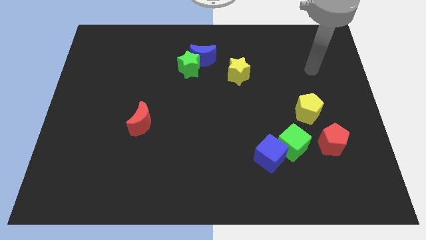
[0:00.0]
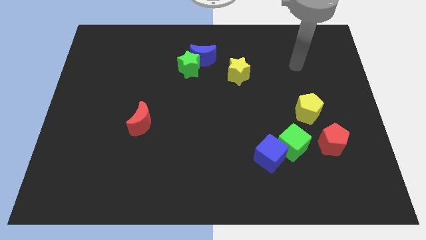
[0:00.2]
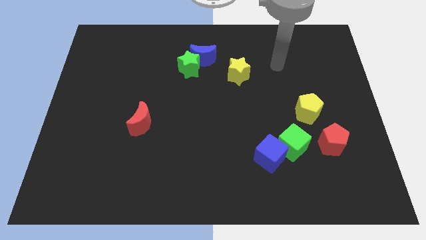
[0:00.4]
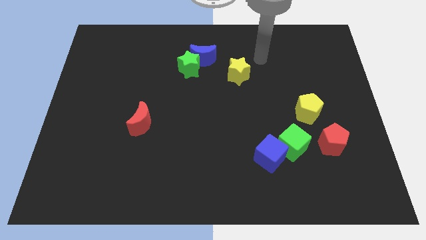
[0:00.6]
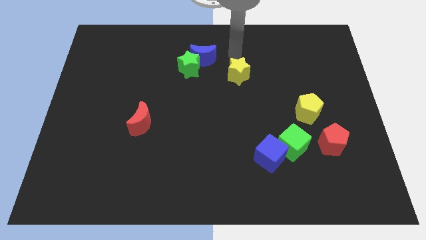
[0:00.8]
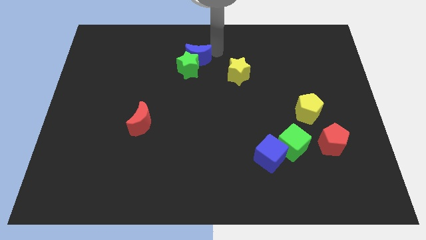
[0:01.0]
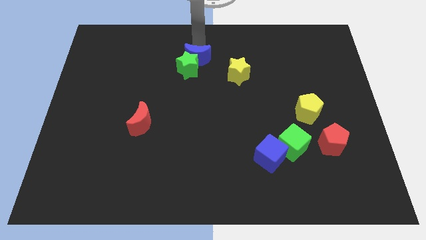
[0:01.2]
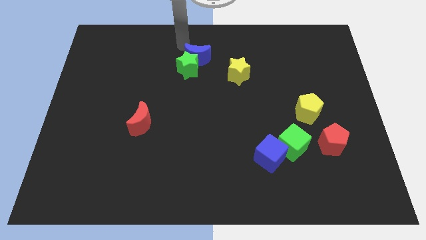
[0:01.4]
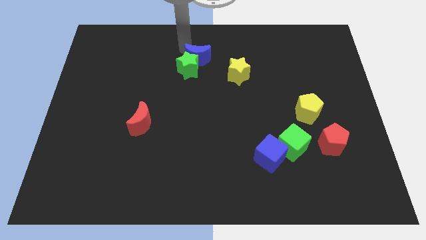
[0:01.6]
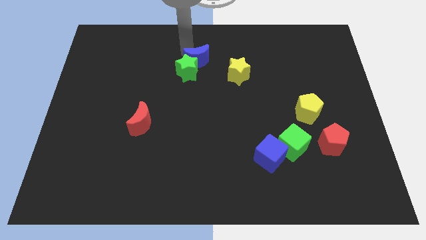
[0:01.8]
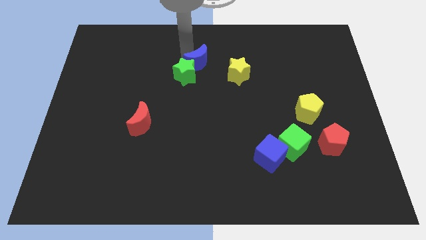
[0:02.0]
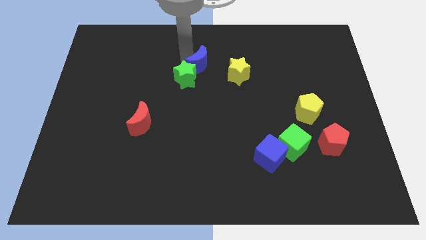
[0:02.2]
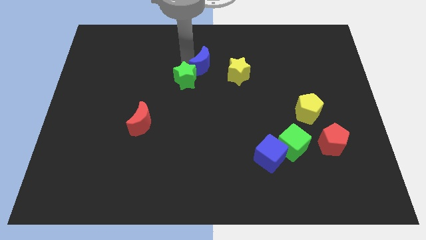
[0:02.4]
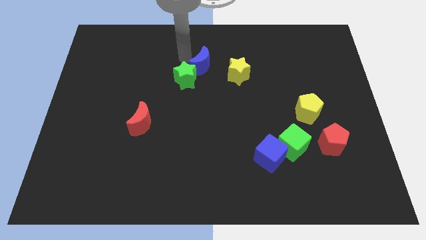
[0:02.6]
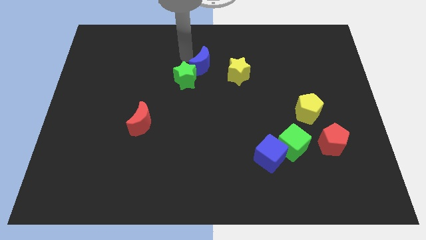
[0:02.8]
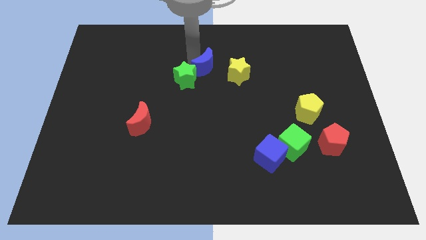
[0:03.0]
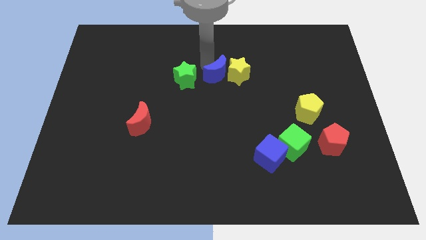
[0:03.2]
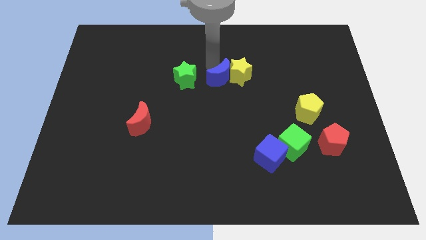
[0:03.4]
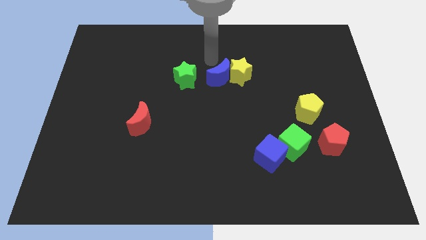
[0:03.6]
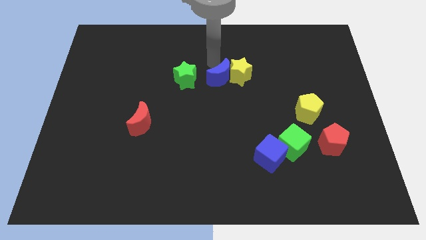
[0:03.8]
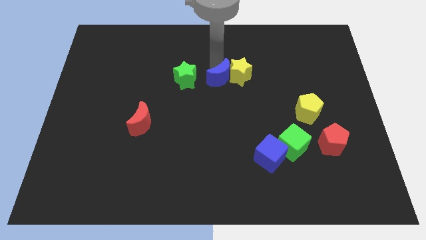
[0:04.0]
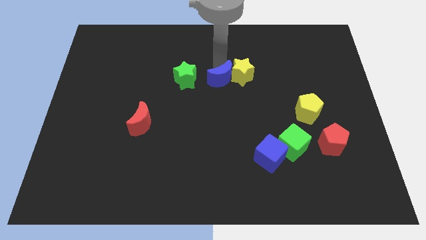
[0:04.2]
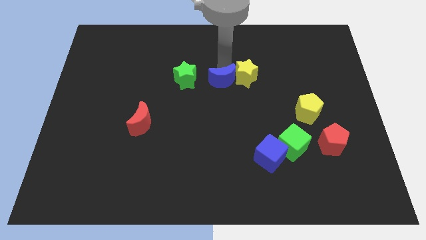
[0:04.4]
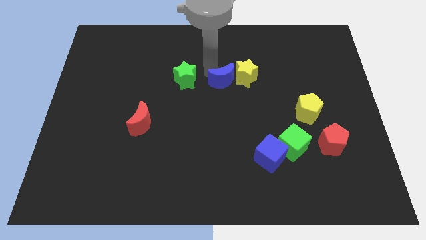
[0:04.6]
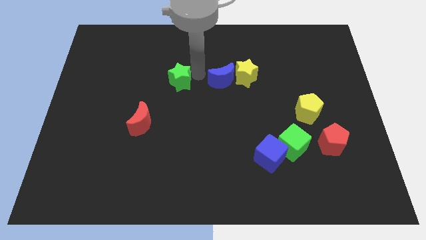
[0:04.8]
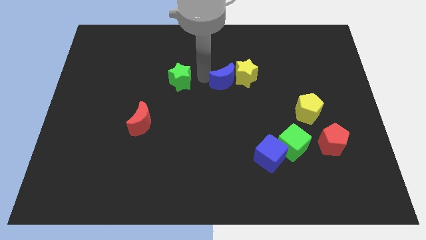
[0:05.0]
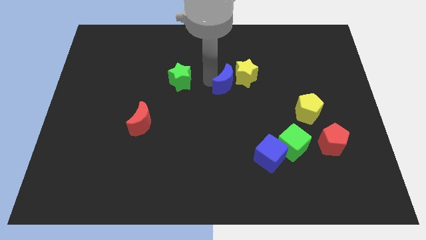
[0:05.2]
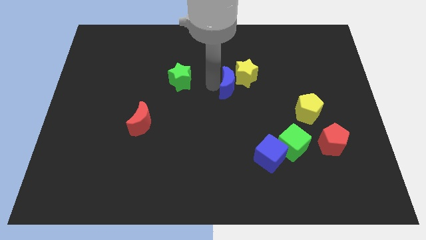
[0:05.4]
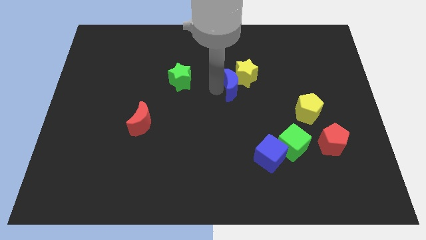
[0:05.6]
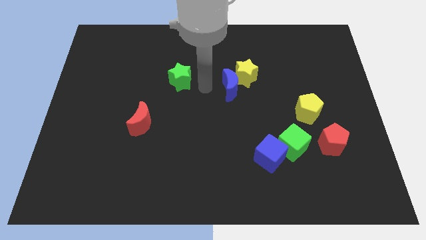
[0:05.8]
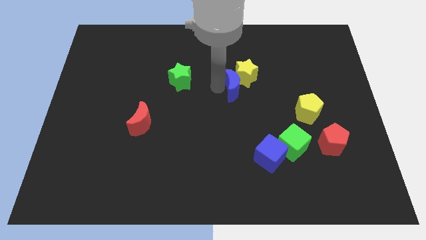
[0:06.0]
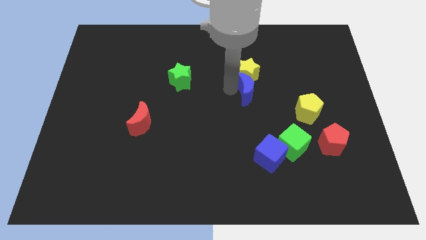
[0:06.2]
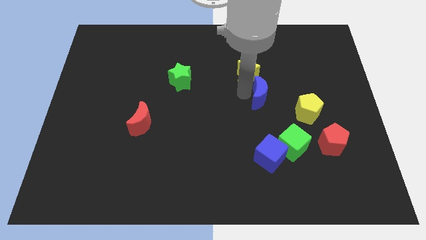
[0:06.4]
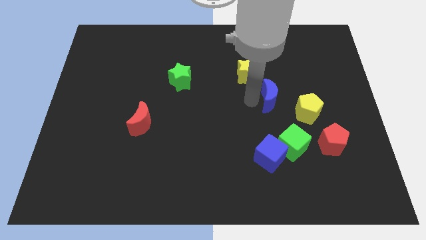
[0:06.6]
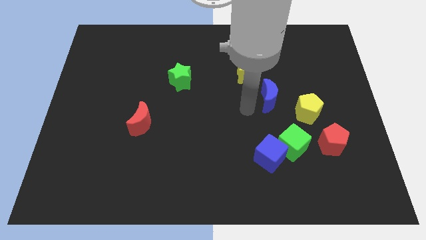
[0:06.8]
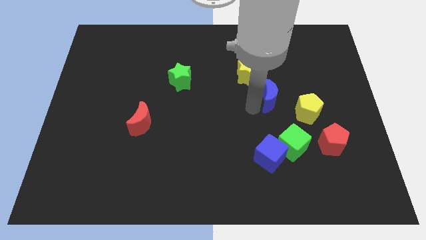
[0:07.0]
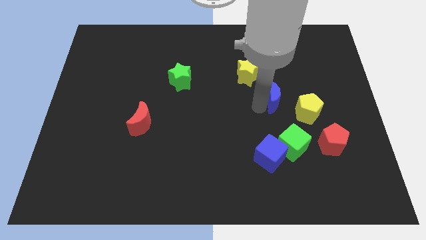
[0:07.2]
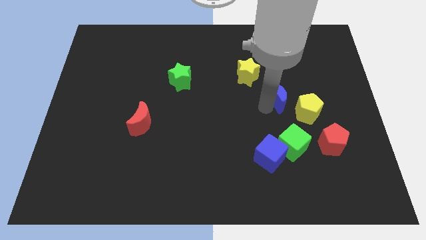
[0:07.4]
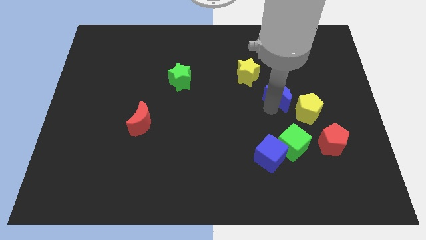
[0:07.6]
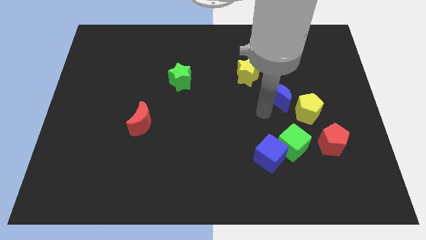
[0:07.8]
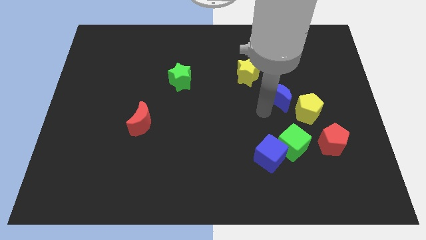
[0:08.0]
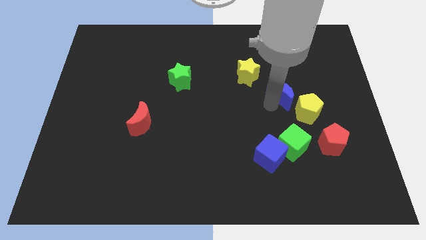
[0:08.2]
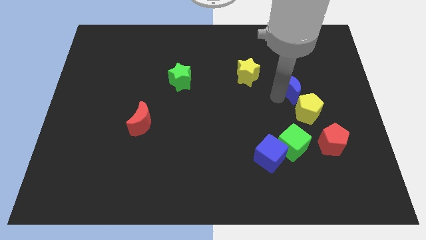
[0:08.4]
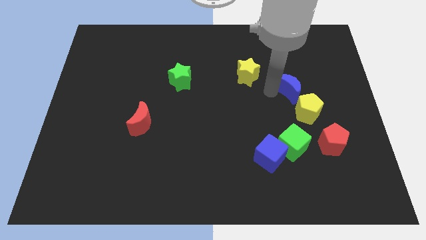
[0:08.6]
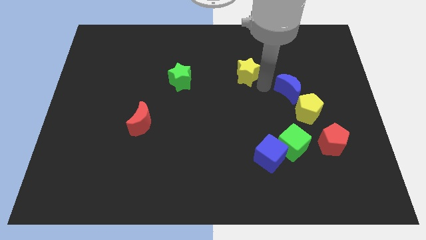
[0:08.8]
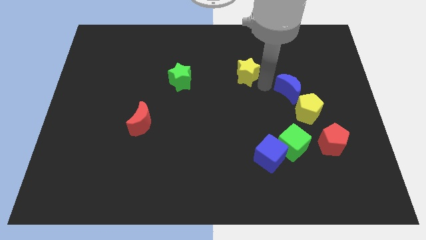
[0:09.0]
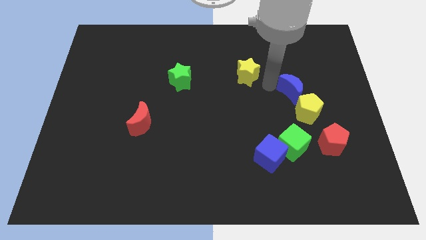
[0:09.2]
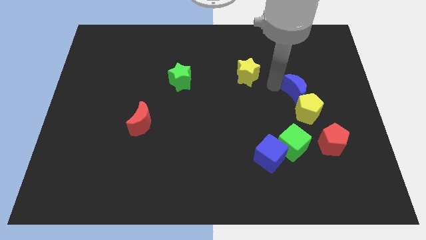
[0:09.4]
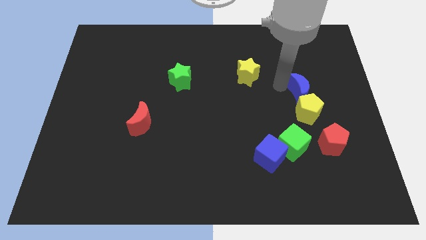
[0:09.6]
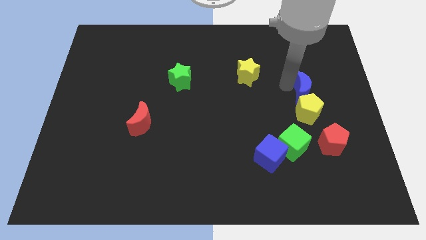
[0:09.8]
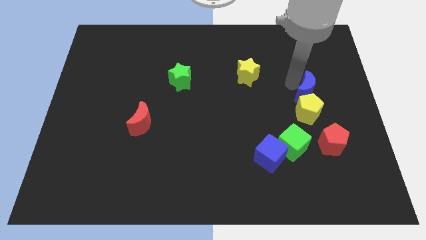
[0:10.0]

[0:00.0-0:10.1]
move the blue moon to the top side of the red pentagon

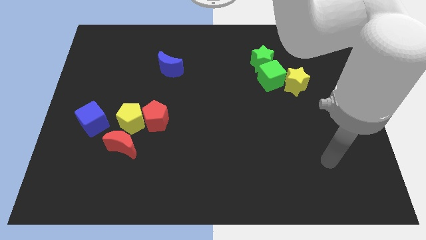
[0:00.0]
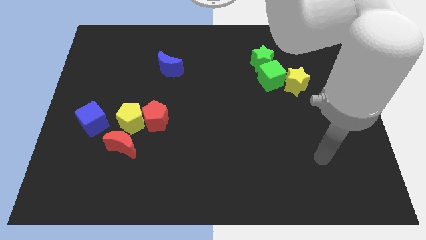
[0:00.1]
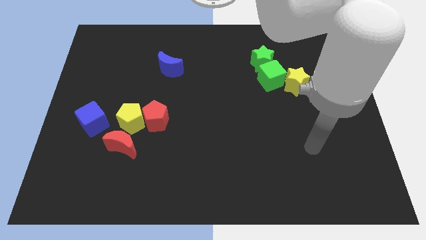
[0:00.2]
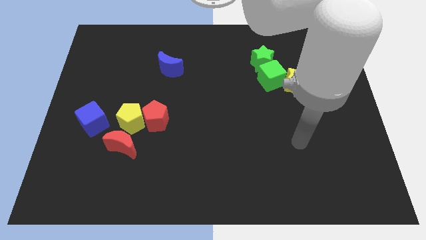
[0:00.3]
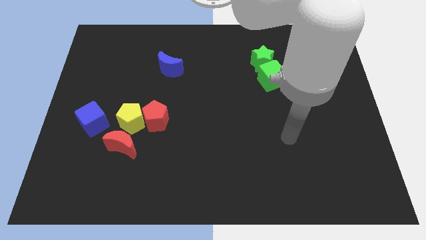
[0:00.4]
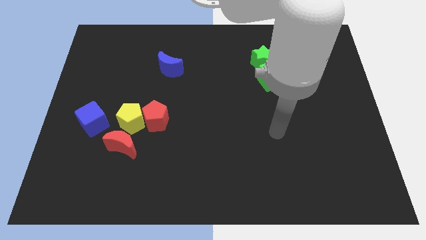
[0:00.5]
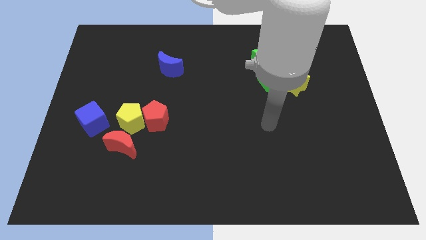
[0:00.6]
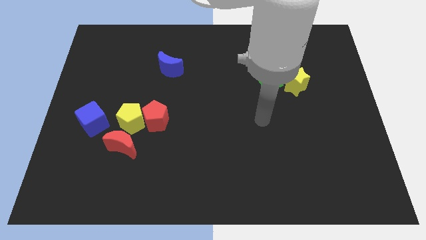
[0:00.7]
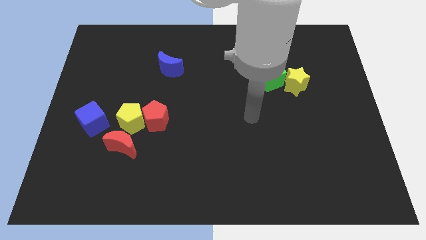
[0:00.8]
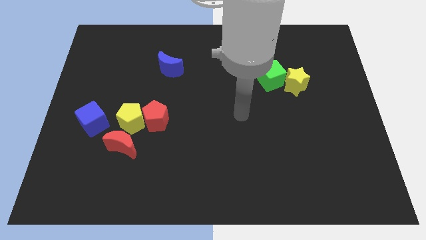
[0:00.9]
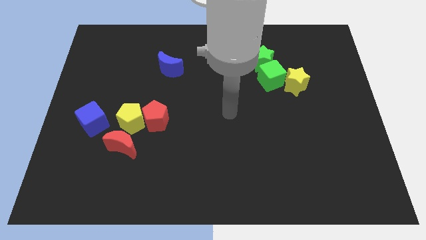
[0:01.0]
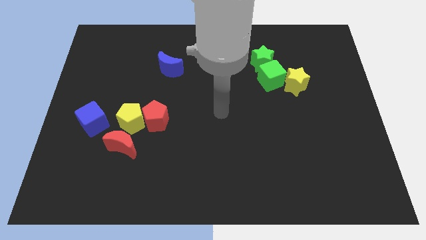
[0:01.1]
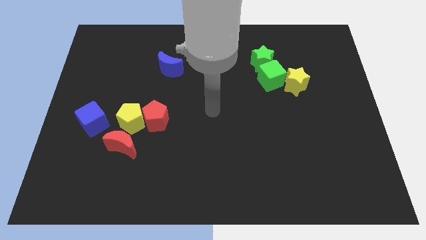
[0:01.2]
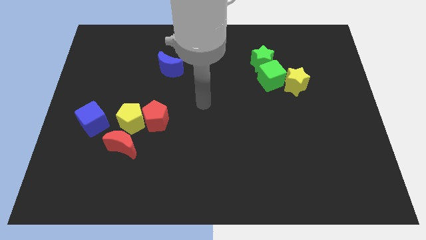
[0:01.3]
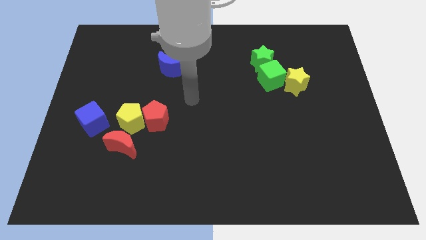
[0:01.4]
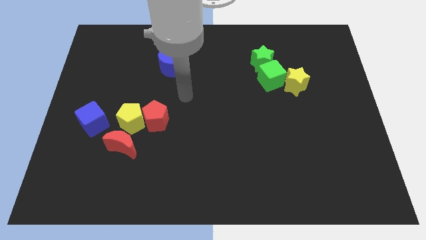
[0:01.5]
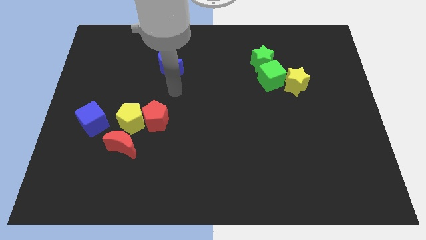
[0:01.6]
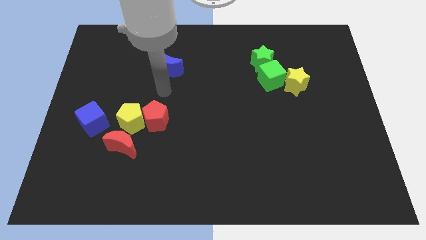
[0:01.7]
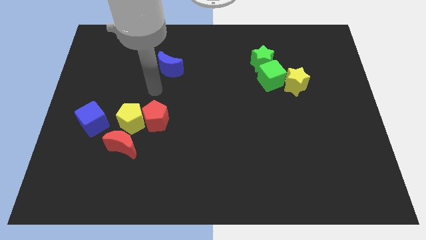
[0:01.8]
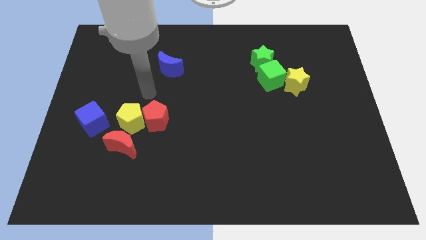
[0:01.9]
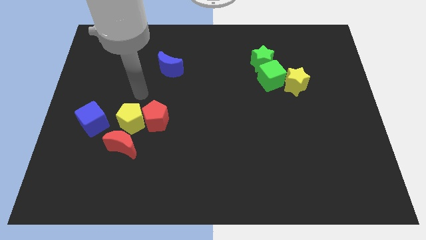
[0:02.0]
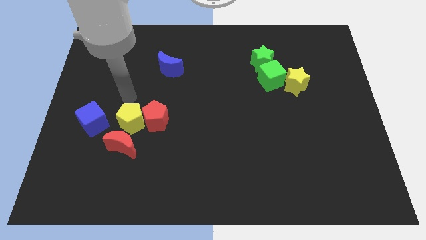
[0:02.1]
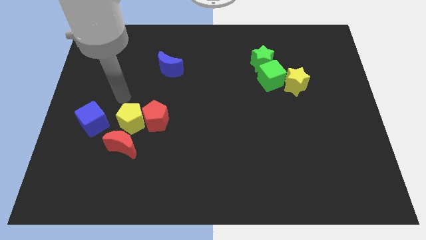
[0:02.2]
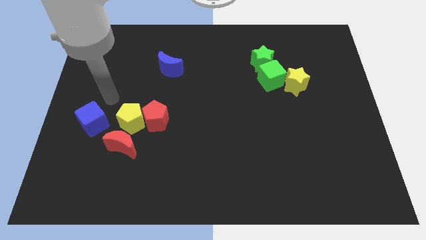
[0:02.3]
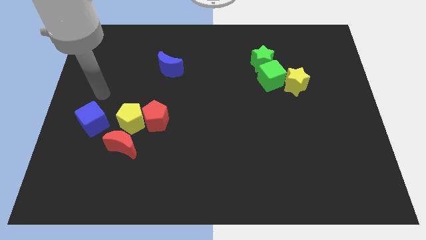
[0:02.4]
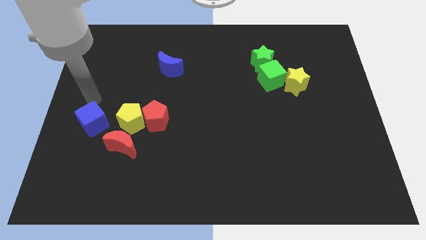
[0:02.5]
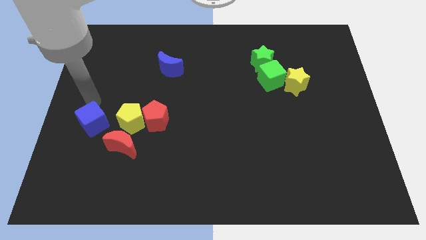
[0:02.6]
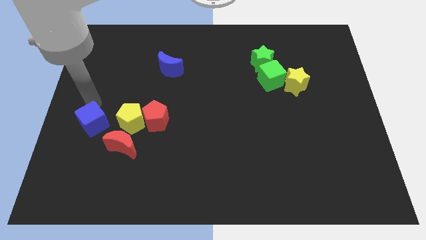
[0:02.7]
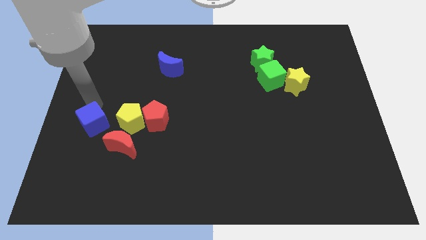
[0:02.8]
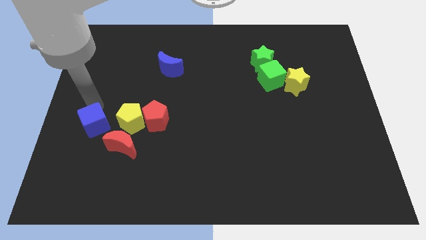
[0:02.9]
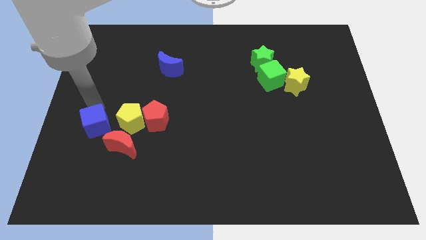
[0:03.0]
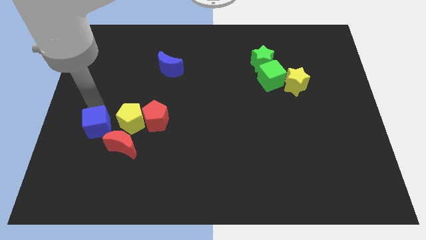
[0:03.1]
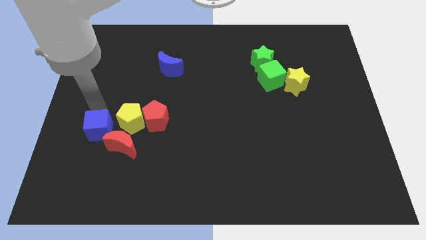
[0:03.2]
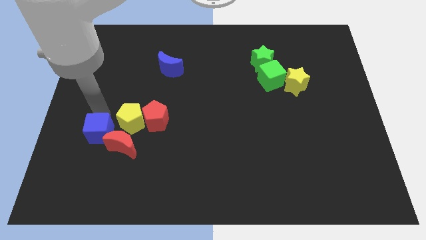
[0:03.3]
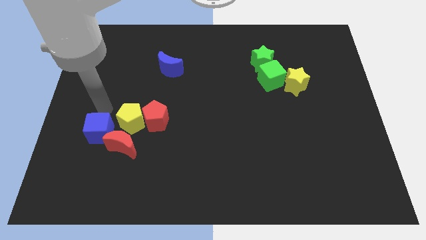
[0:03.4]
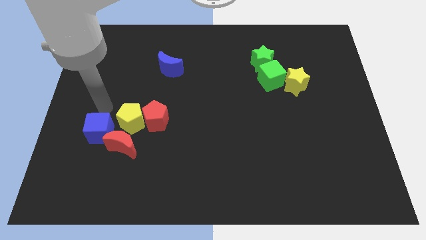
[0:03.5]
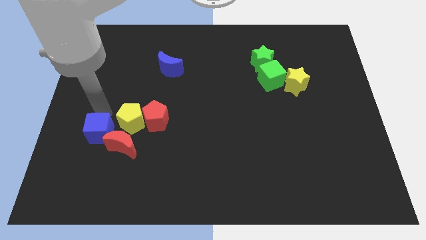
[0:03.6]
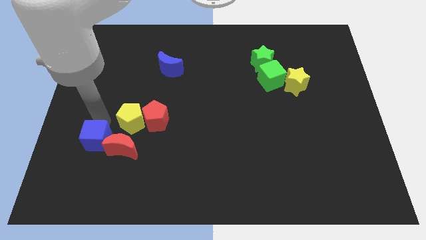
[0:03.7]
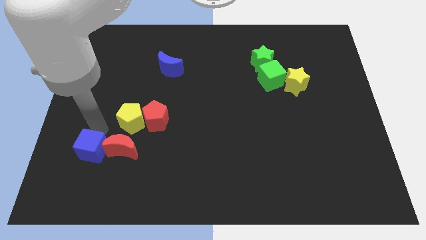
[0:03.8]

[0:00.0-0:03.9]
slide the blue cube to the bottom left of the red moon
